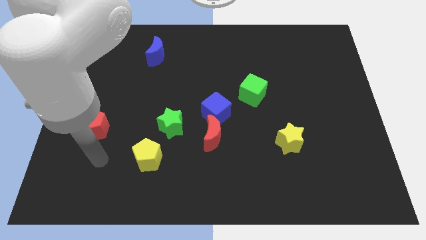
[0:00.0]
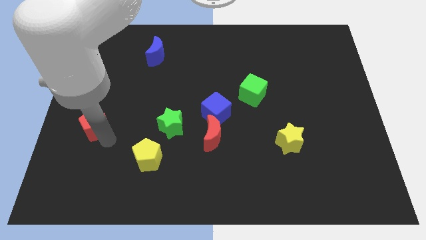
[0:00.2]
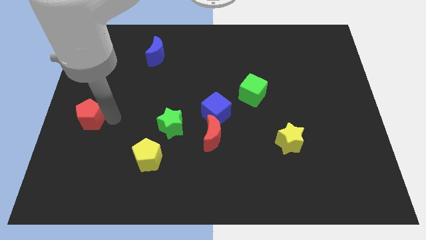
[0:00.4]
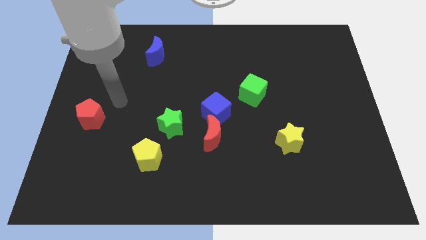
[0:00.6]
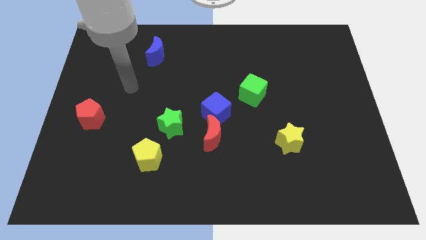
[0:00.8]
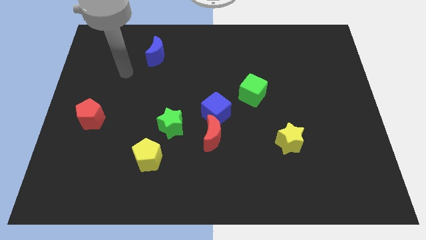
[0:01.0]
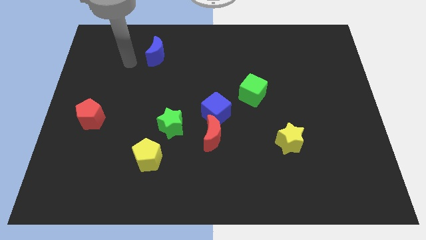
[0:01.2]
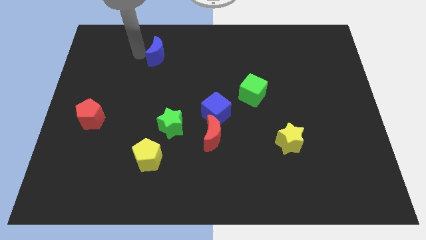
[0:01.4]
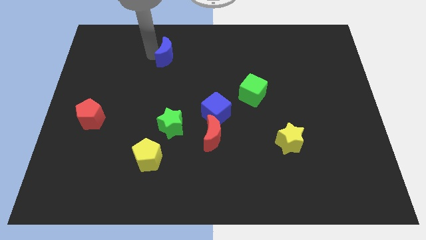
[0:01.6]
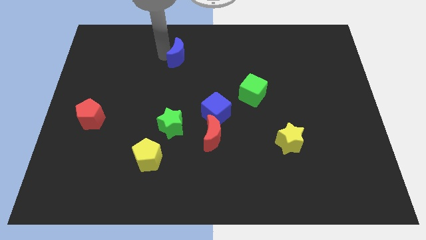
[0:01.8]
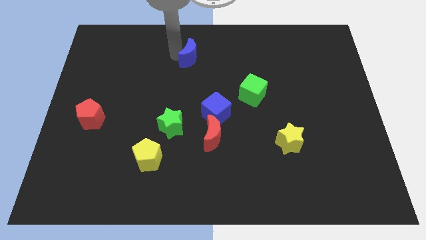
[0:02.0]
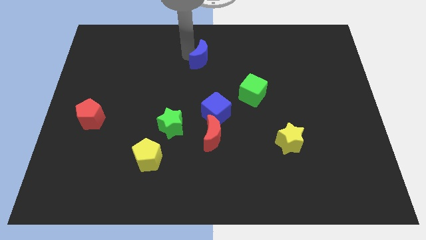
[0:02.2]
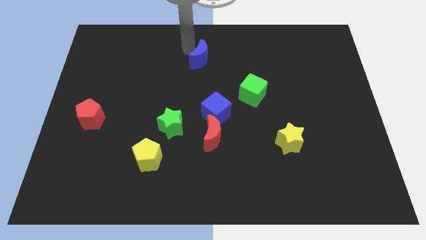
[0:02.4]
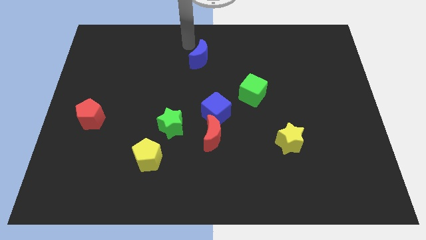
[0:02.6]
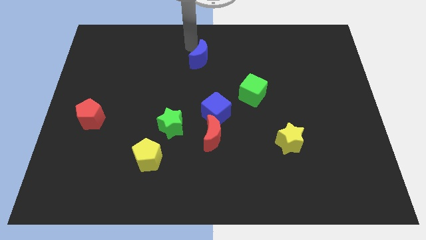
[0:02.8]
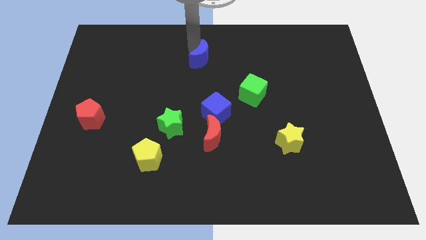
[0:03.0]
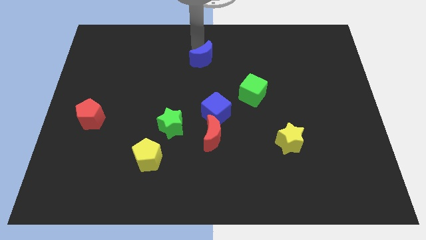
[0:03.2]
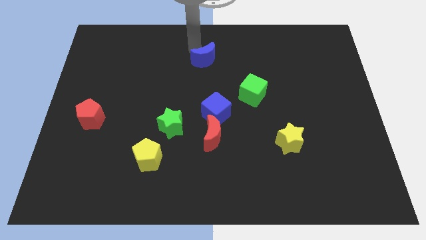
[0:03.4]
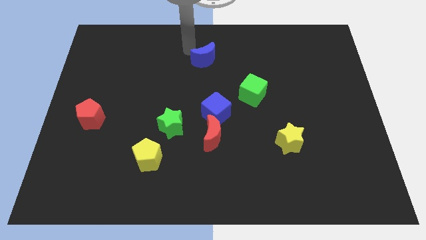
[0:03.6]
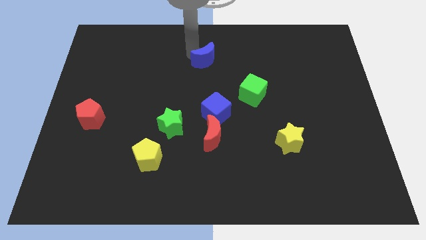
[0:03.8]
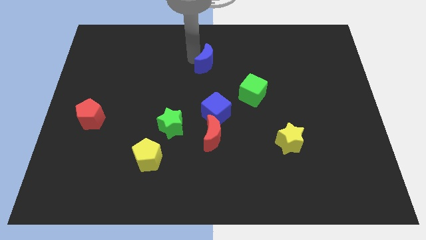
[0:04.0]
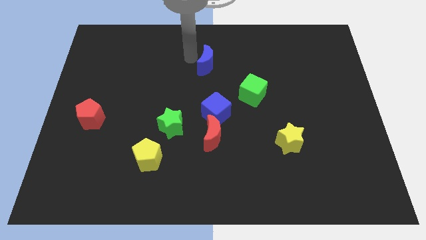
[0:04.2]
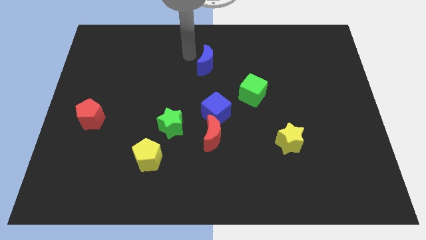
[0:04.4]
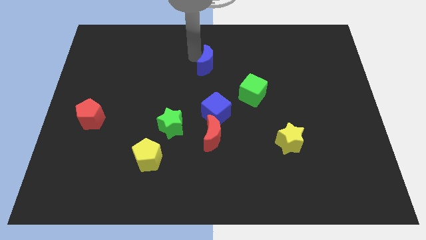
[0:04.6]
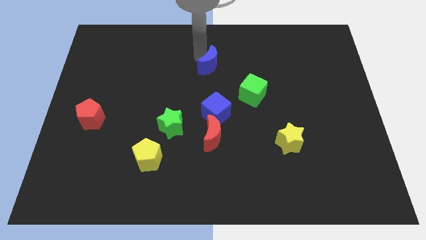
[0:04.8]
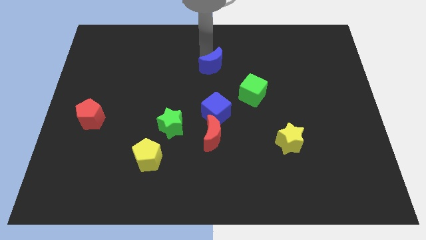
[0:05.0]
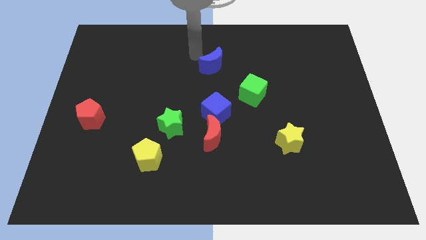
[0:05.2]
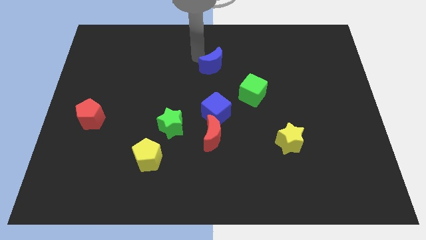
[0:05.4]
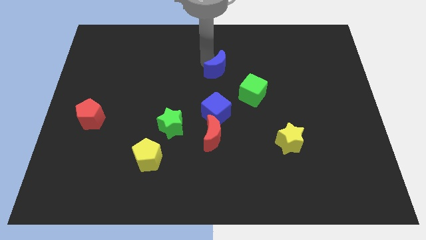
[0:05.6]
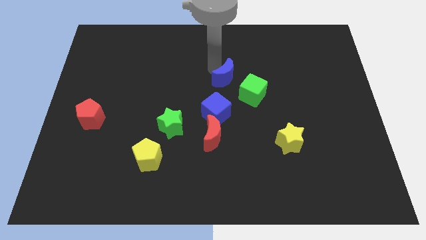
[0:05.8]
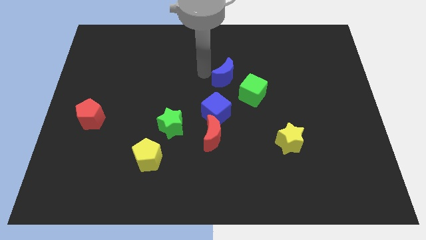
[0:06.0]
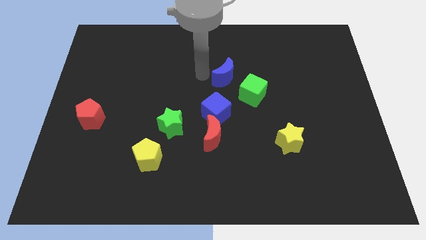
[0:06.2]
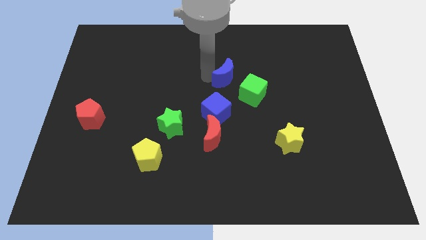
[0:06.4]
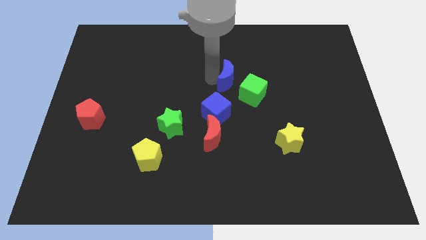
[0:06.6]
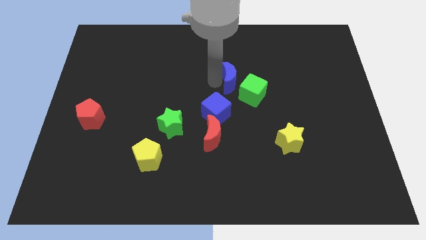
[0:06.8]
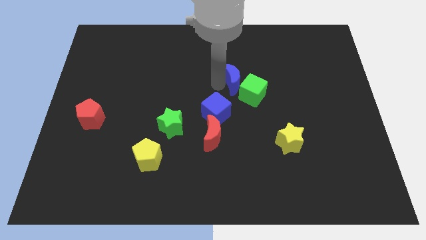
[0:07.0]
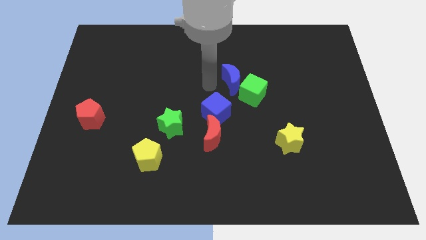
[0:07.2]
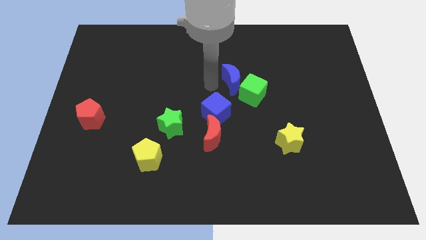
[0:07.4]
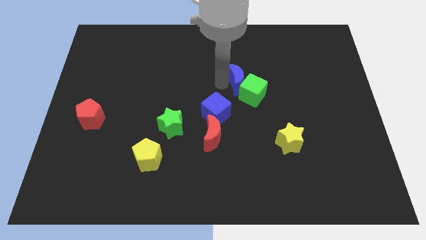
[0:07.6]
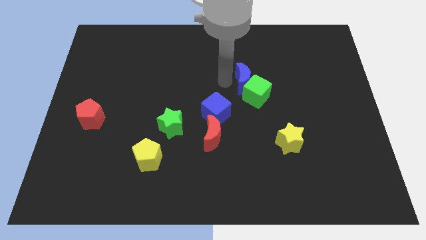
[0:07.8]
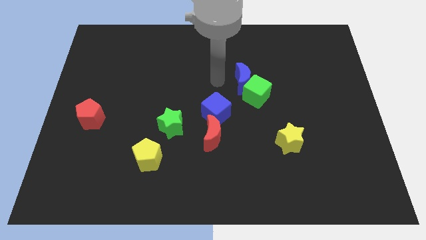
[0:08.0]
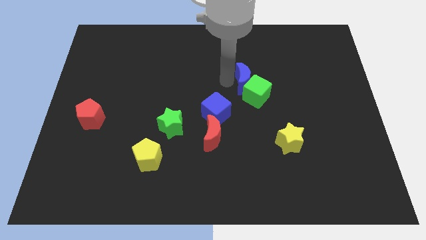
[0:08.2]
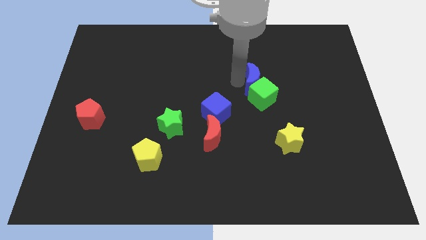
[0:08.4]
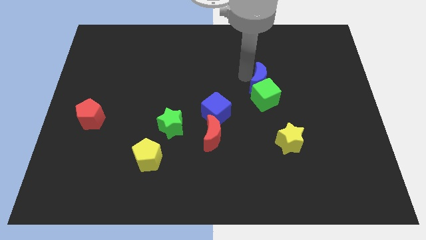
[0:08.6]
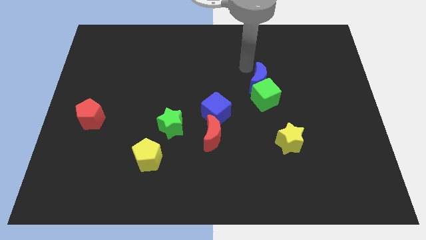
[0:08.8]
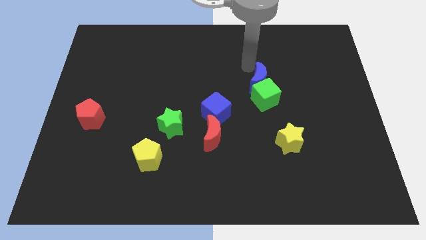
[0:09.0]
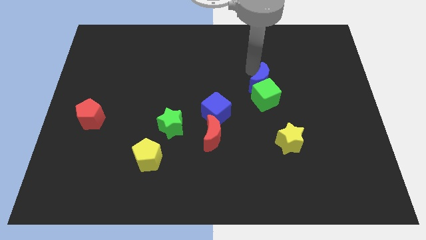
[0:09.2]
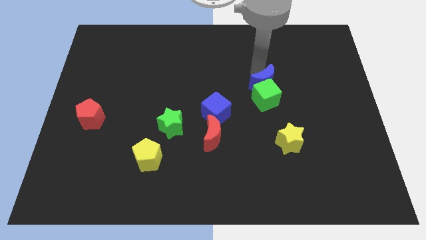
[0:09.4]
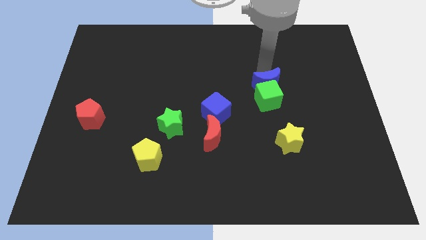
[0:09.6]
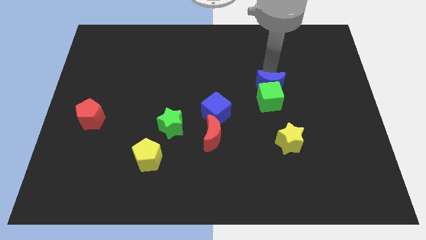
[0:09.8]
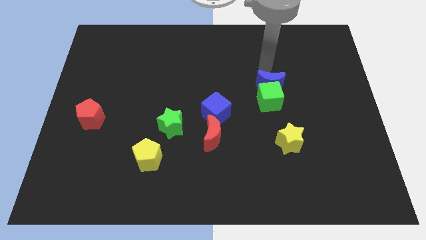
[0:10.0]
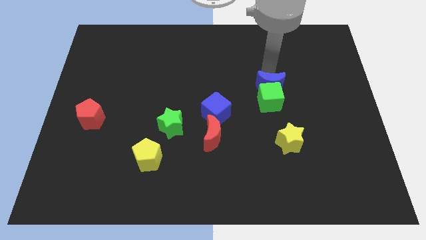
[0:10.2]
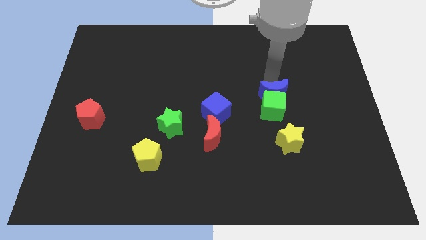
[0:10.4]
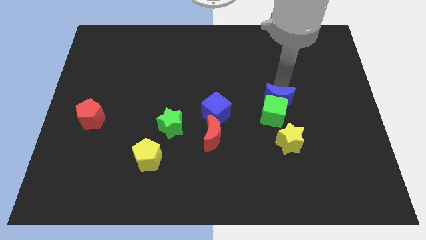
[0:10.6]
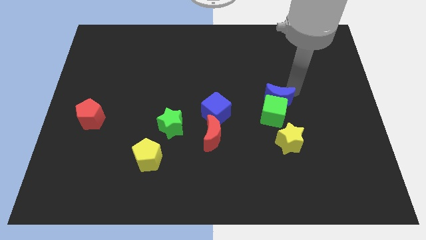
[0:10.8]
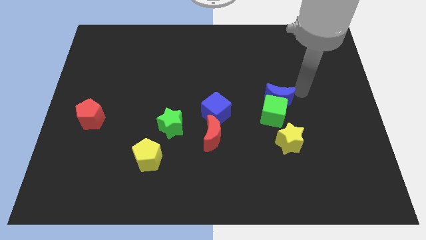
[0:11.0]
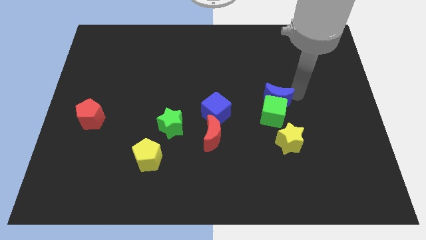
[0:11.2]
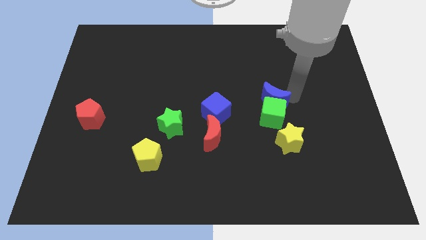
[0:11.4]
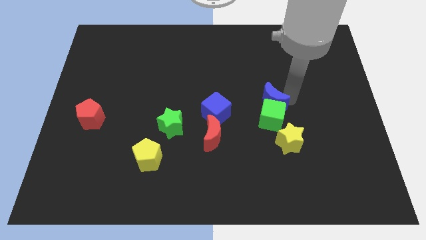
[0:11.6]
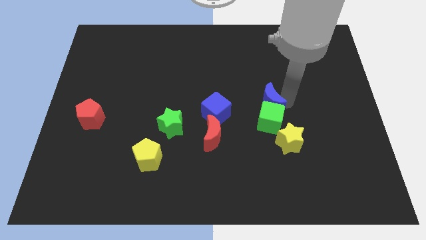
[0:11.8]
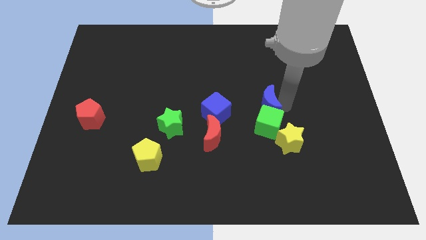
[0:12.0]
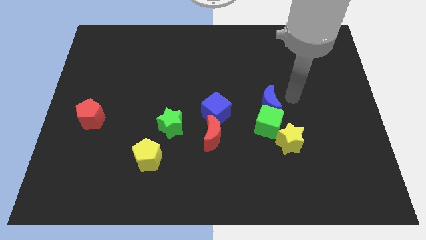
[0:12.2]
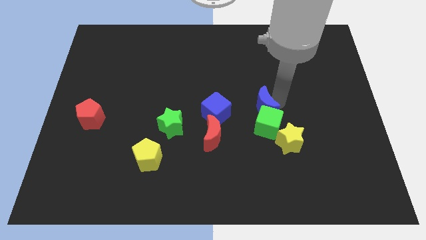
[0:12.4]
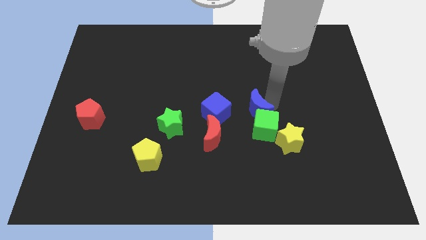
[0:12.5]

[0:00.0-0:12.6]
slide the blue moon to the top right of the red moon
